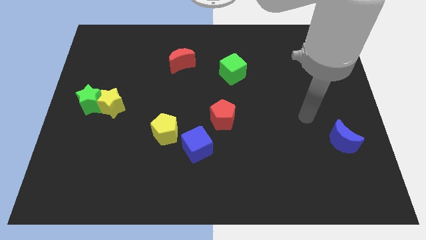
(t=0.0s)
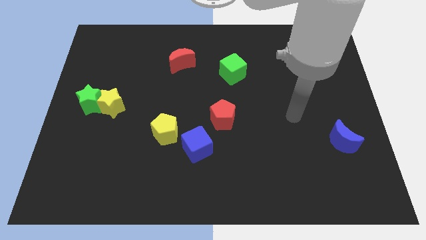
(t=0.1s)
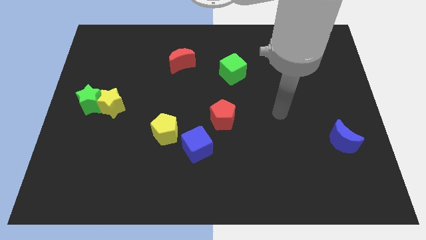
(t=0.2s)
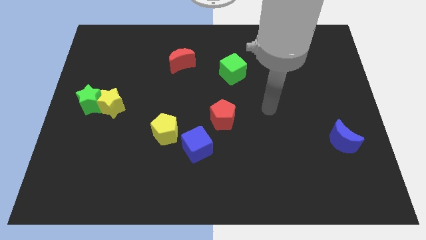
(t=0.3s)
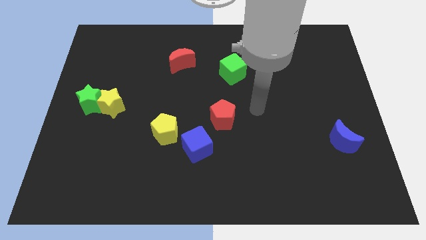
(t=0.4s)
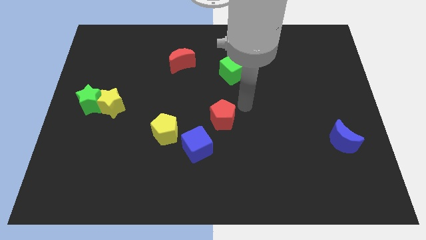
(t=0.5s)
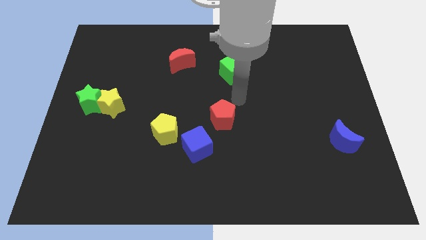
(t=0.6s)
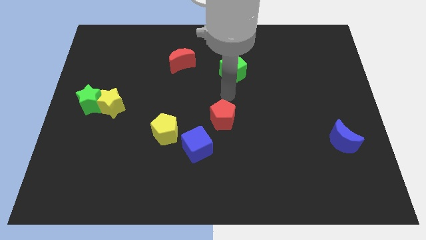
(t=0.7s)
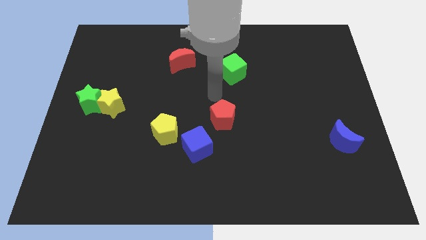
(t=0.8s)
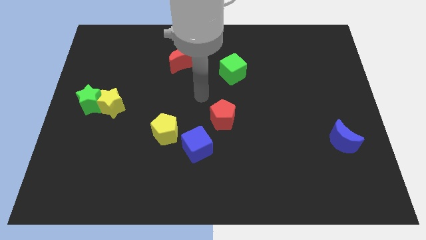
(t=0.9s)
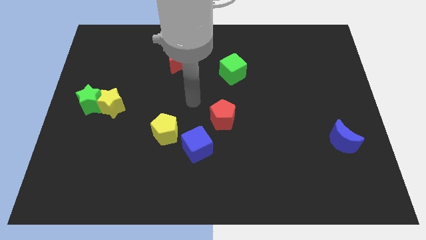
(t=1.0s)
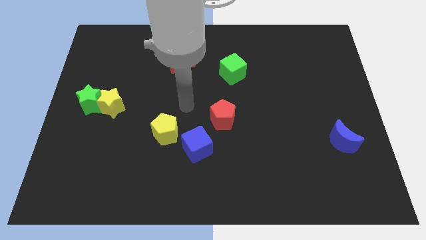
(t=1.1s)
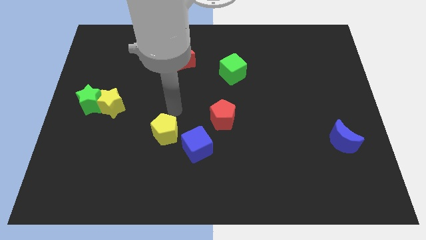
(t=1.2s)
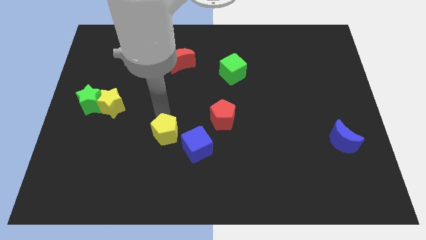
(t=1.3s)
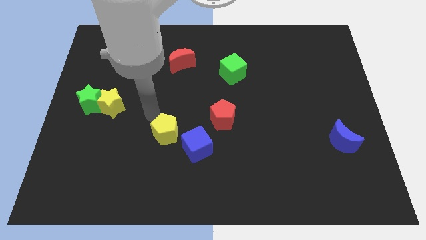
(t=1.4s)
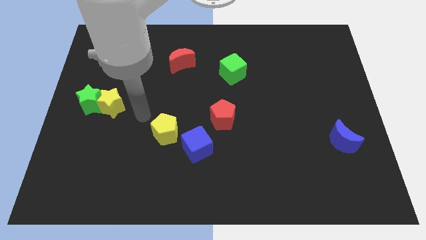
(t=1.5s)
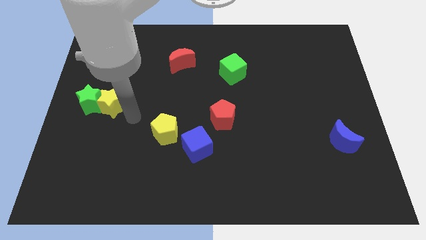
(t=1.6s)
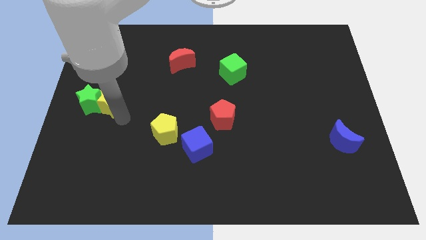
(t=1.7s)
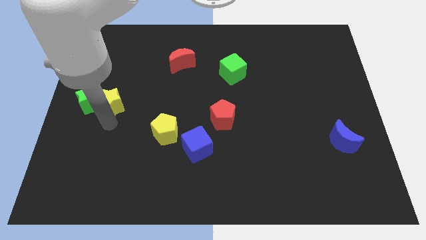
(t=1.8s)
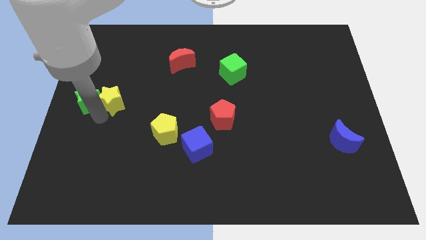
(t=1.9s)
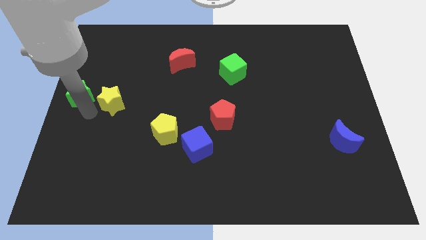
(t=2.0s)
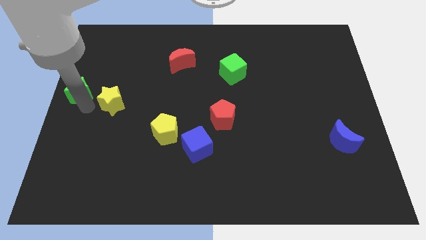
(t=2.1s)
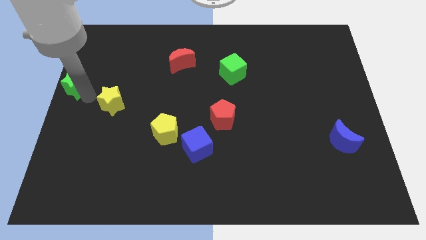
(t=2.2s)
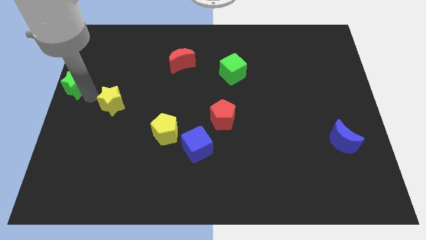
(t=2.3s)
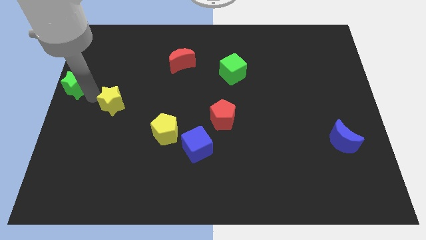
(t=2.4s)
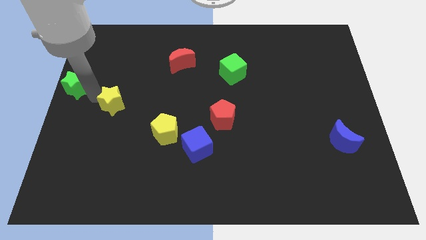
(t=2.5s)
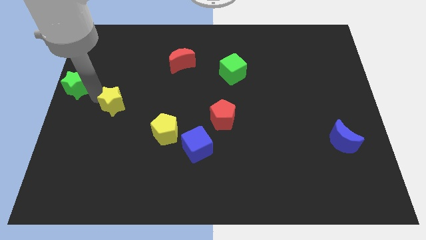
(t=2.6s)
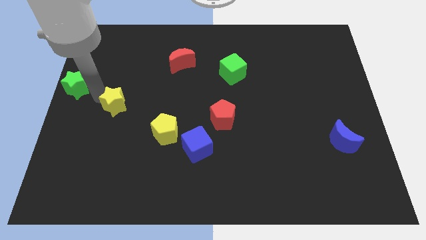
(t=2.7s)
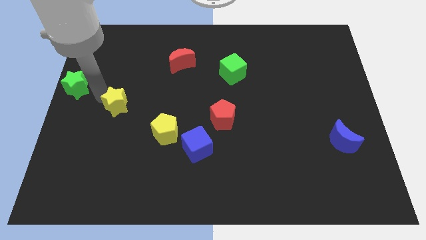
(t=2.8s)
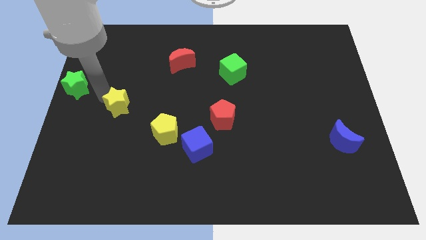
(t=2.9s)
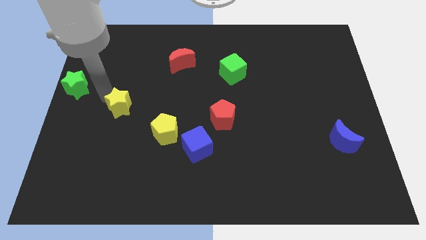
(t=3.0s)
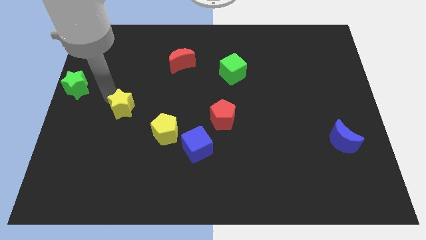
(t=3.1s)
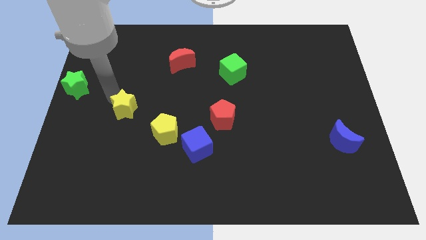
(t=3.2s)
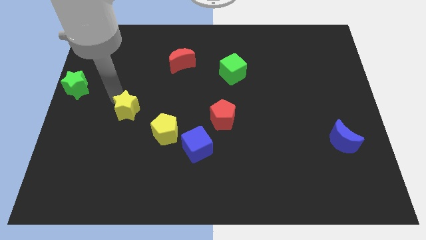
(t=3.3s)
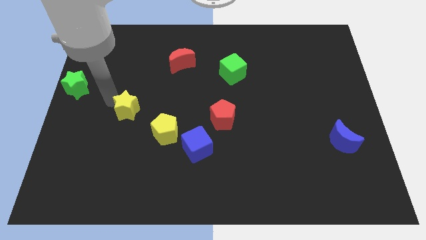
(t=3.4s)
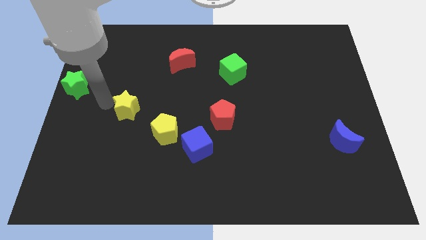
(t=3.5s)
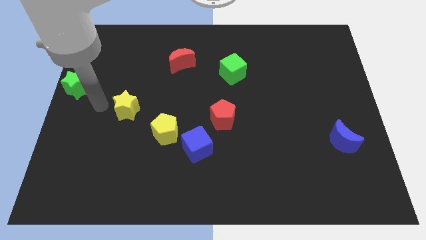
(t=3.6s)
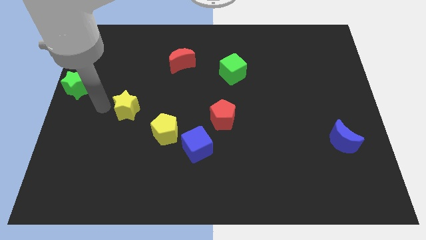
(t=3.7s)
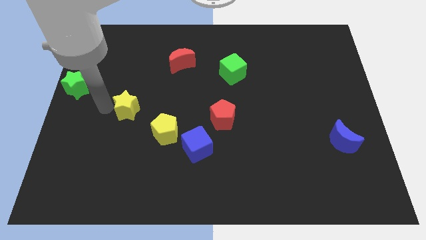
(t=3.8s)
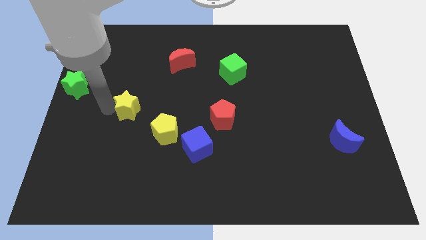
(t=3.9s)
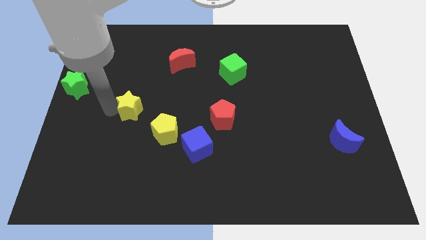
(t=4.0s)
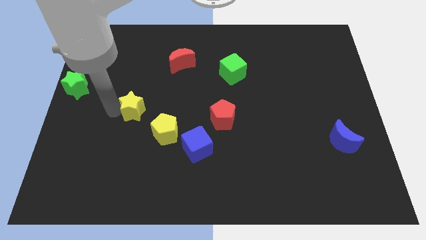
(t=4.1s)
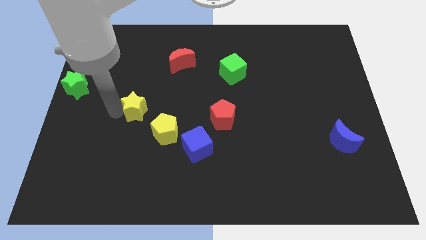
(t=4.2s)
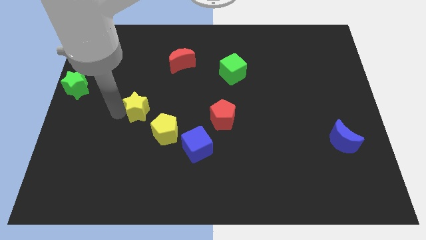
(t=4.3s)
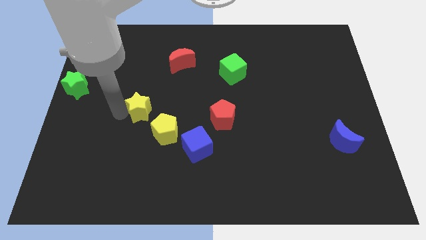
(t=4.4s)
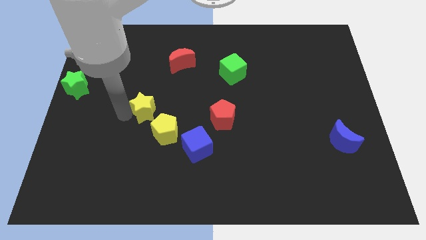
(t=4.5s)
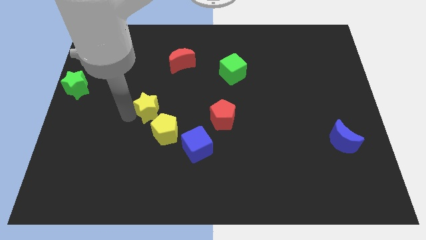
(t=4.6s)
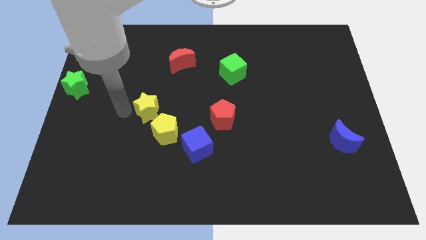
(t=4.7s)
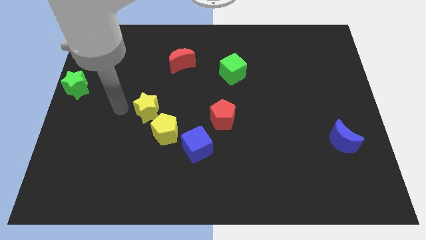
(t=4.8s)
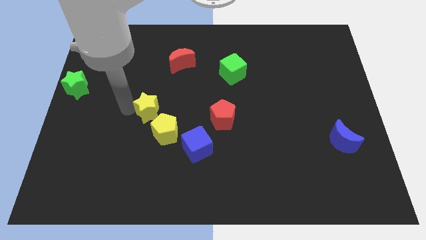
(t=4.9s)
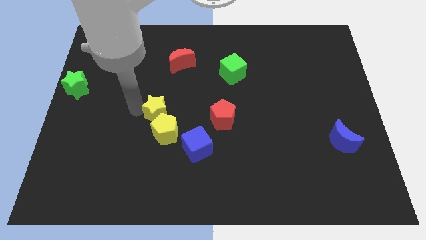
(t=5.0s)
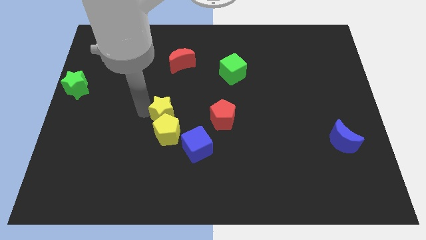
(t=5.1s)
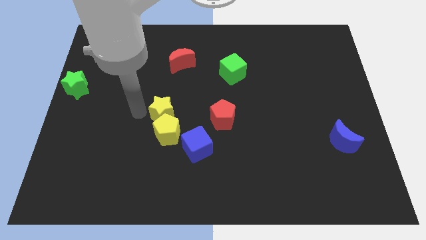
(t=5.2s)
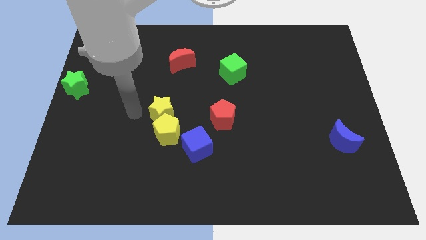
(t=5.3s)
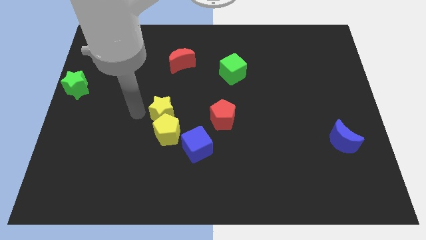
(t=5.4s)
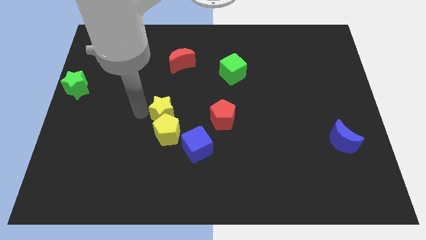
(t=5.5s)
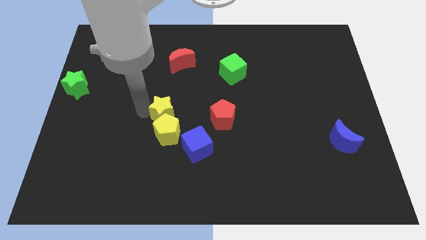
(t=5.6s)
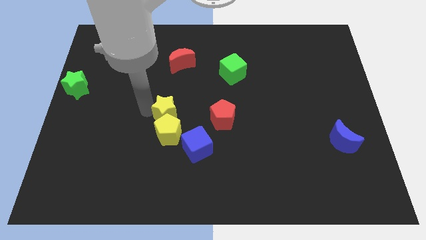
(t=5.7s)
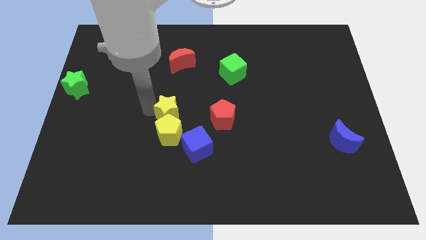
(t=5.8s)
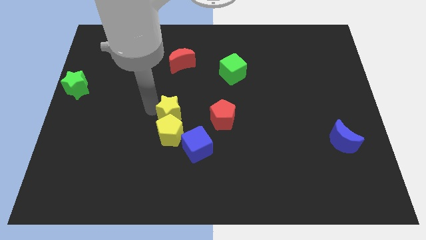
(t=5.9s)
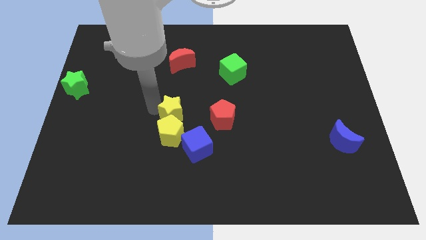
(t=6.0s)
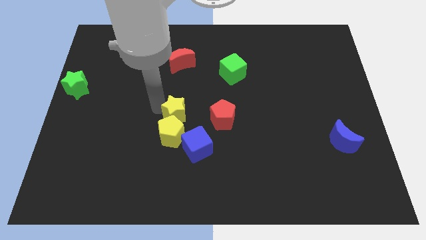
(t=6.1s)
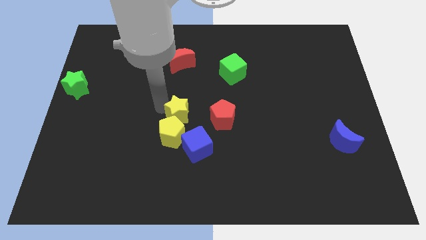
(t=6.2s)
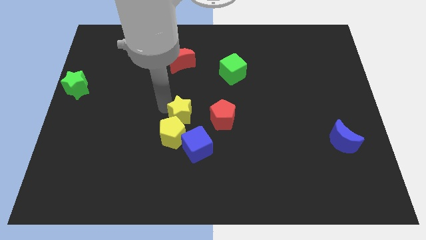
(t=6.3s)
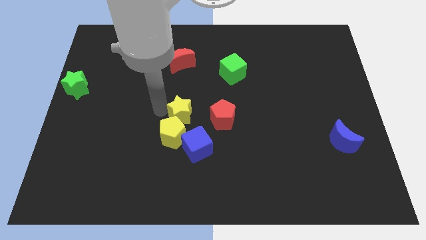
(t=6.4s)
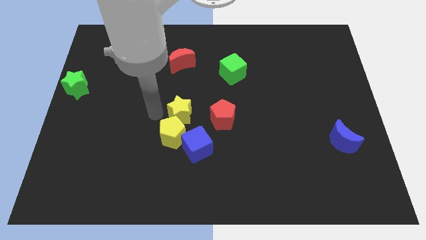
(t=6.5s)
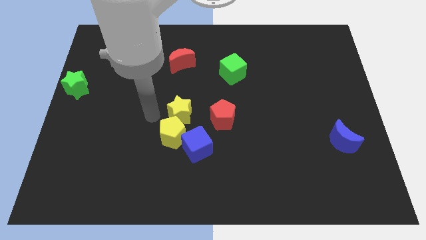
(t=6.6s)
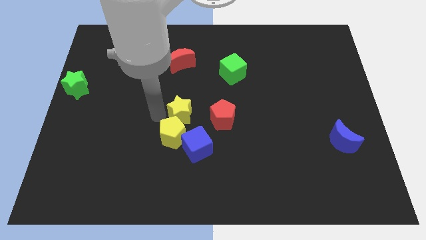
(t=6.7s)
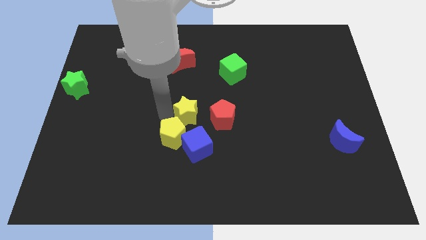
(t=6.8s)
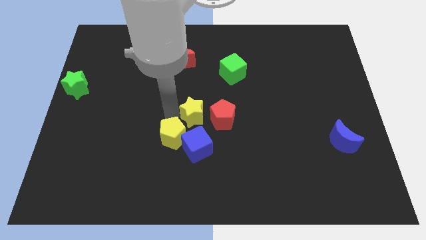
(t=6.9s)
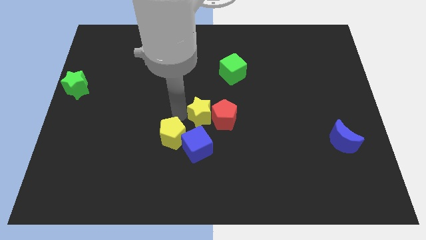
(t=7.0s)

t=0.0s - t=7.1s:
push the yellow star towards the red pentagon
